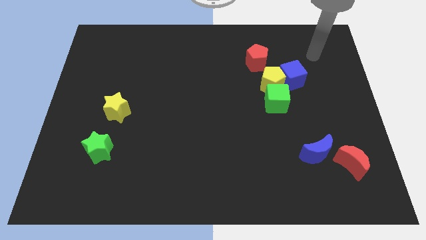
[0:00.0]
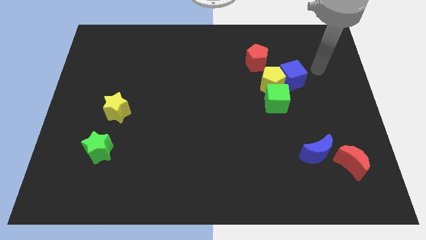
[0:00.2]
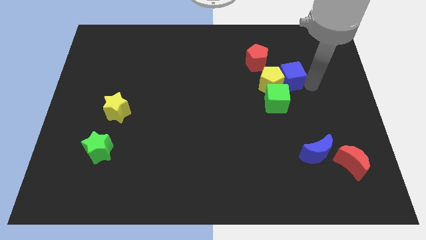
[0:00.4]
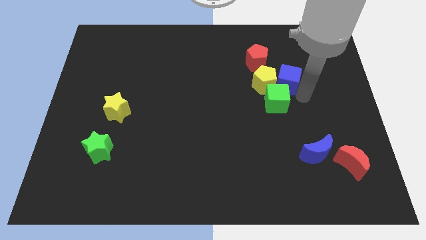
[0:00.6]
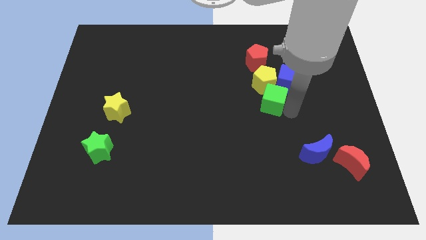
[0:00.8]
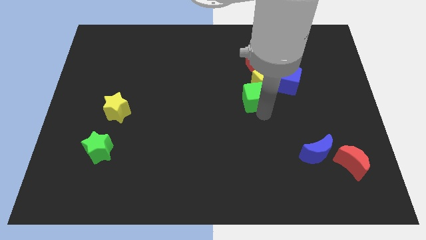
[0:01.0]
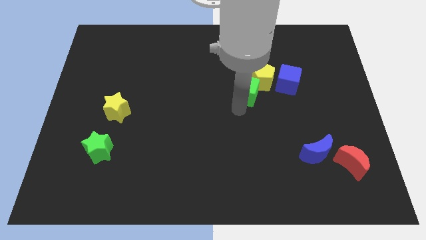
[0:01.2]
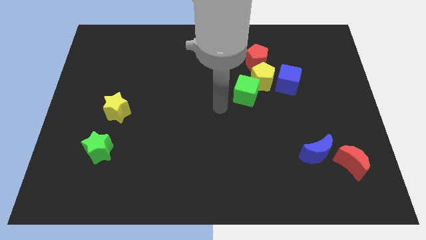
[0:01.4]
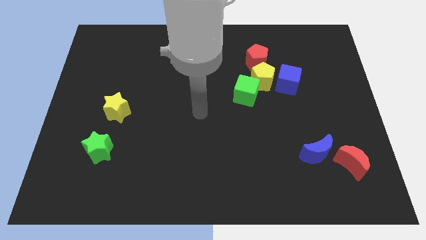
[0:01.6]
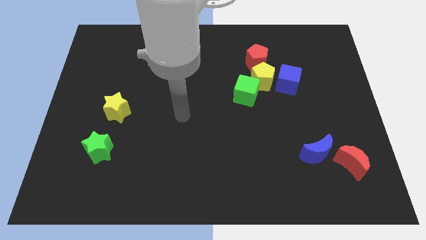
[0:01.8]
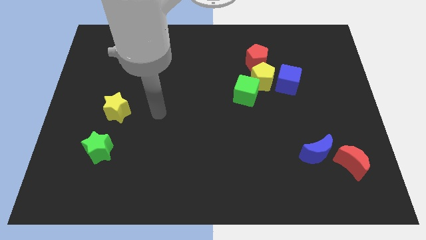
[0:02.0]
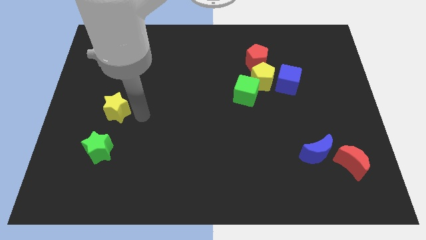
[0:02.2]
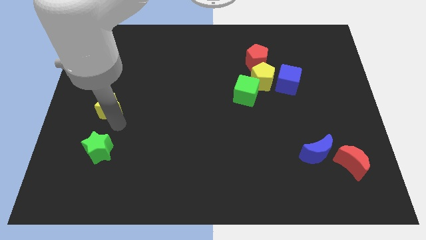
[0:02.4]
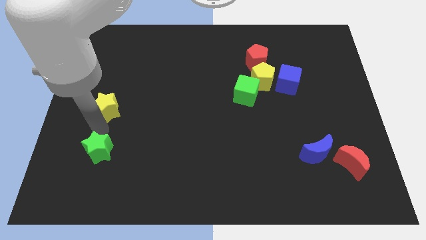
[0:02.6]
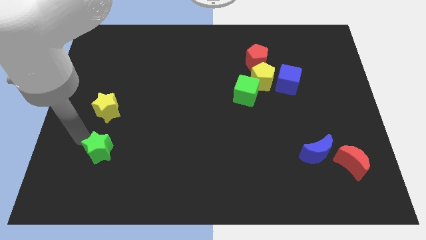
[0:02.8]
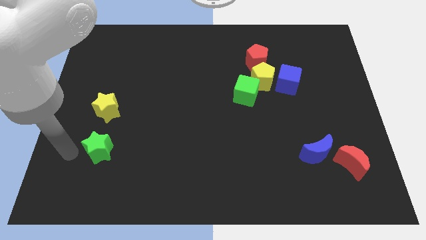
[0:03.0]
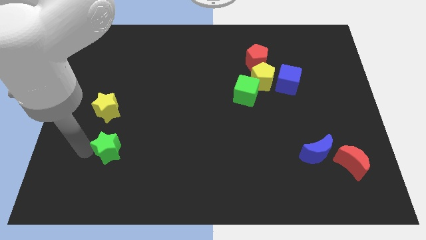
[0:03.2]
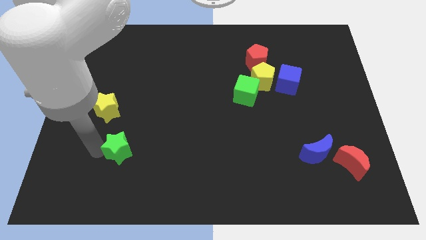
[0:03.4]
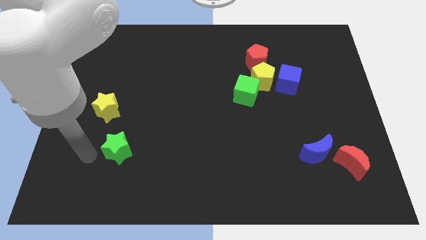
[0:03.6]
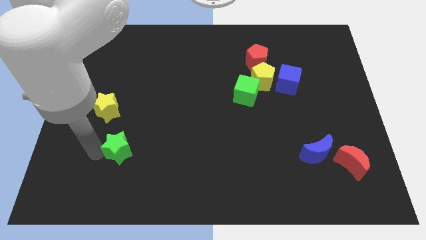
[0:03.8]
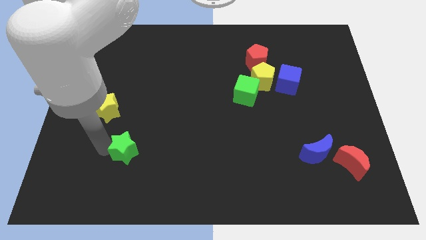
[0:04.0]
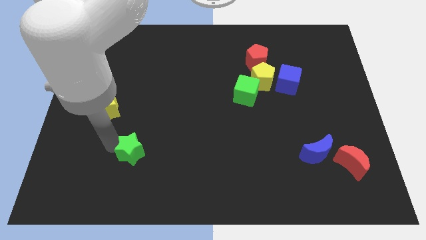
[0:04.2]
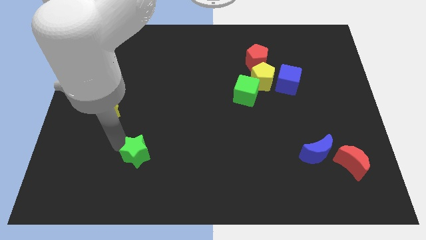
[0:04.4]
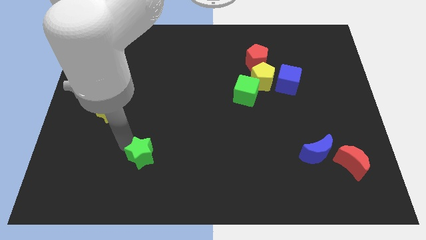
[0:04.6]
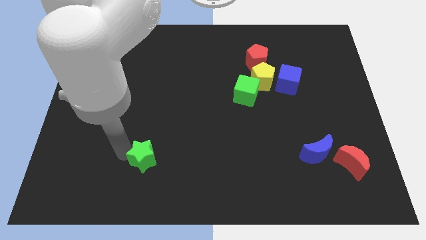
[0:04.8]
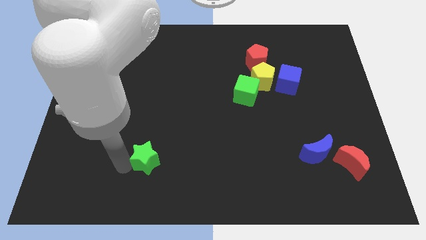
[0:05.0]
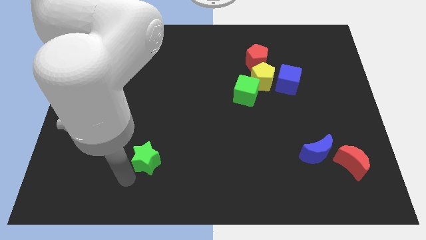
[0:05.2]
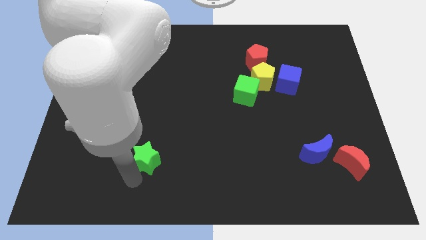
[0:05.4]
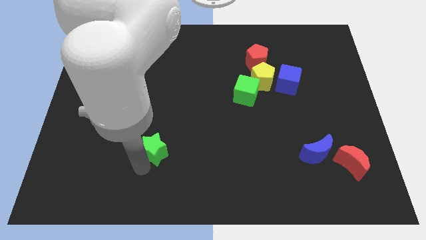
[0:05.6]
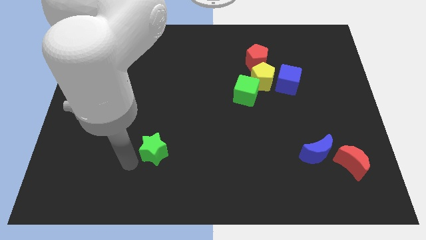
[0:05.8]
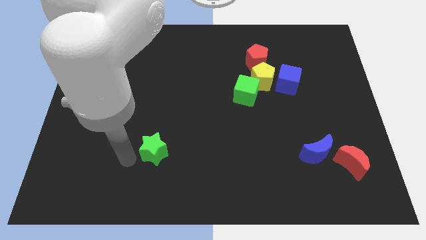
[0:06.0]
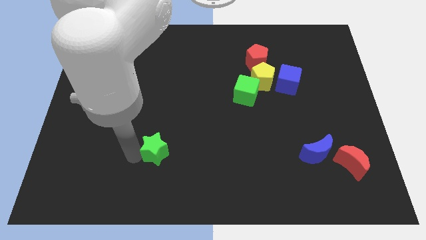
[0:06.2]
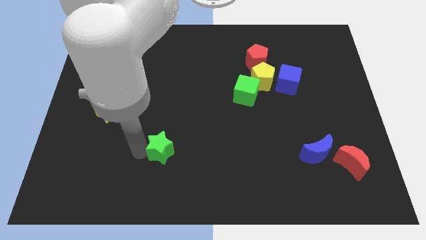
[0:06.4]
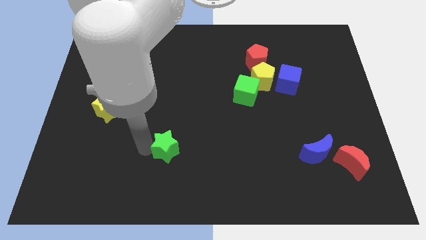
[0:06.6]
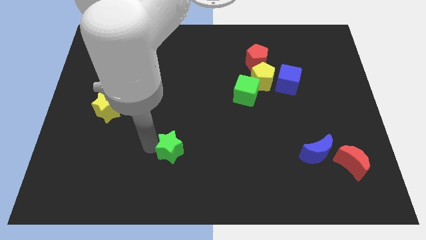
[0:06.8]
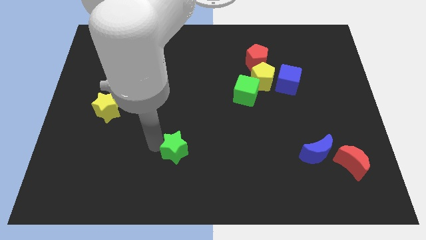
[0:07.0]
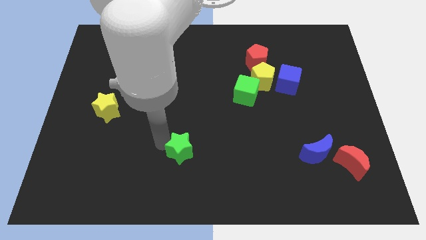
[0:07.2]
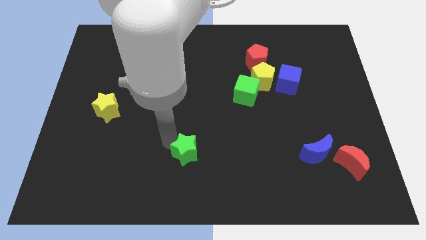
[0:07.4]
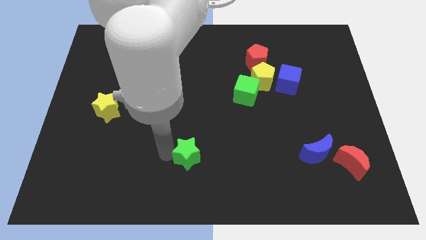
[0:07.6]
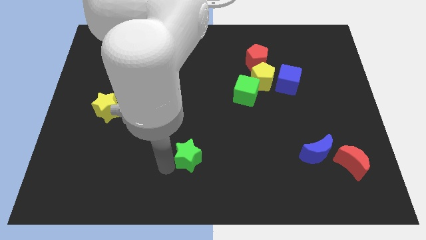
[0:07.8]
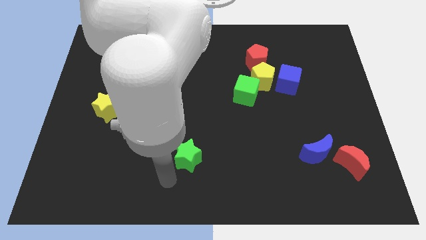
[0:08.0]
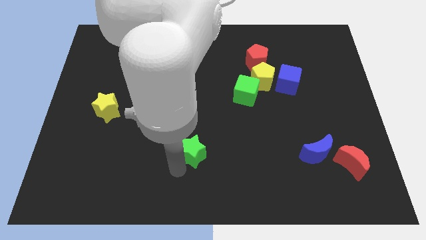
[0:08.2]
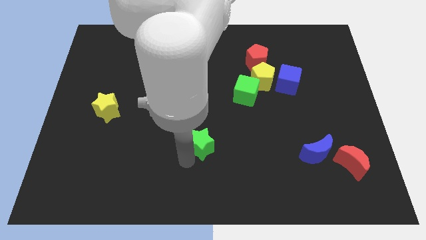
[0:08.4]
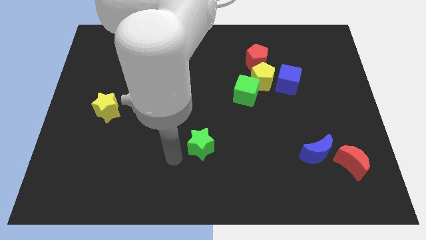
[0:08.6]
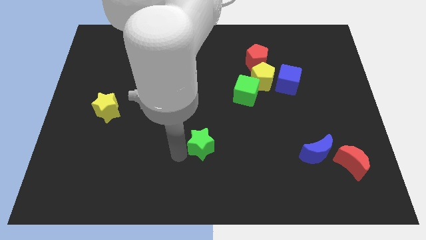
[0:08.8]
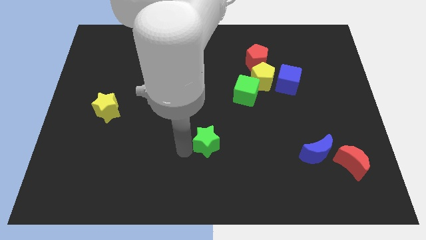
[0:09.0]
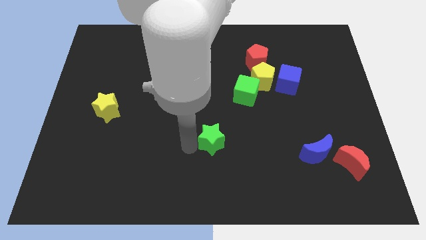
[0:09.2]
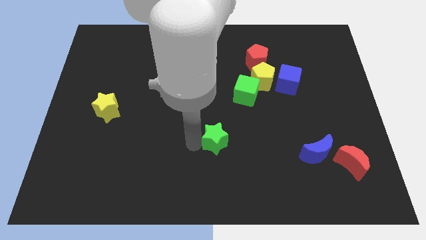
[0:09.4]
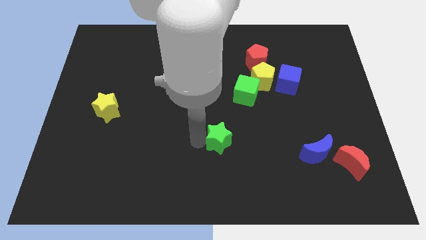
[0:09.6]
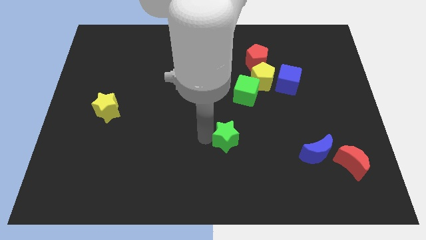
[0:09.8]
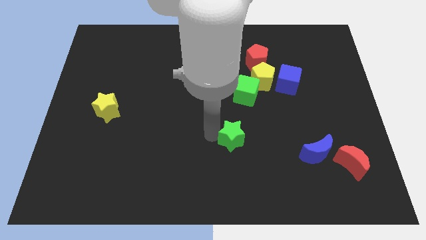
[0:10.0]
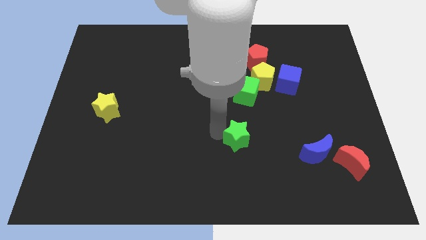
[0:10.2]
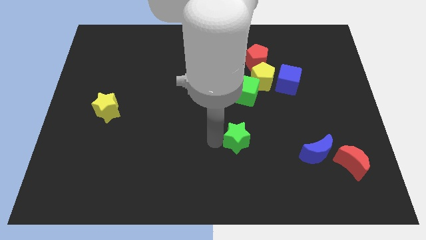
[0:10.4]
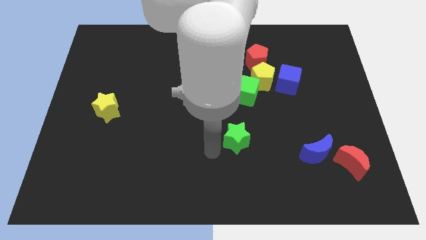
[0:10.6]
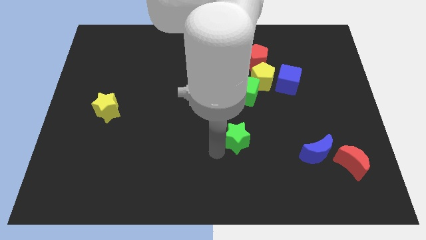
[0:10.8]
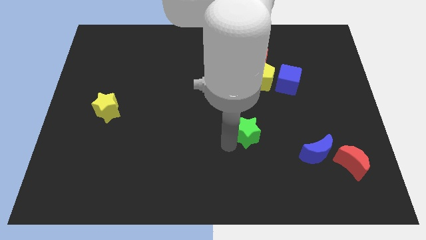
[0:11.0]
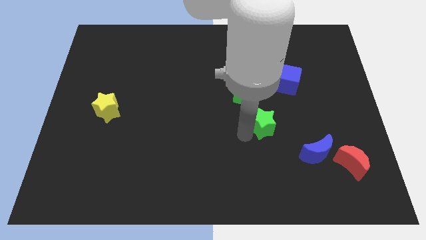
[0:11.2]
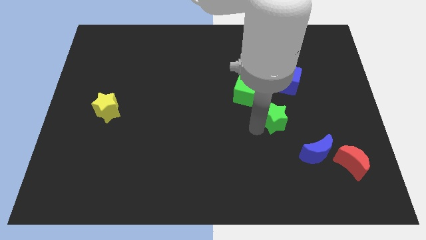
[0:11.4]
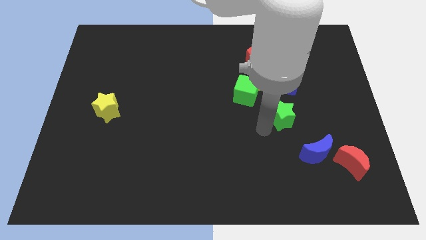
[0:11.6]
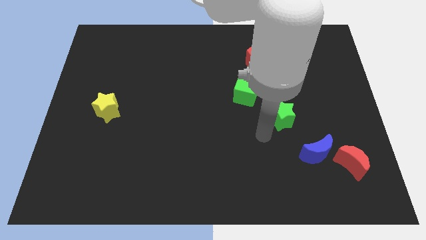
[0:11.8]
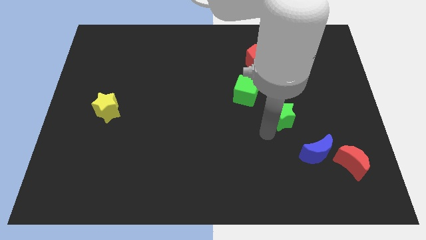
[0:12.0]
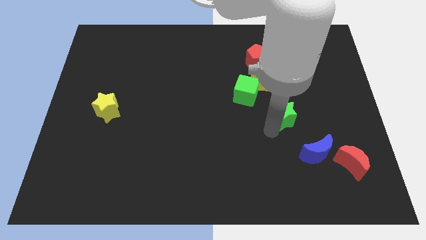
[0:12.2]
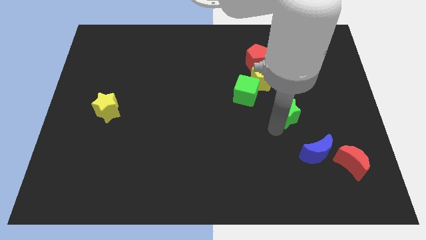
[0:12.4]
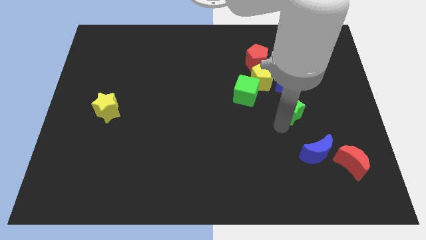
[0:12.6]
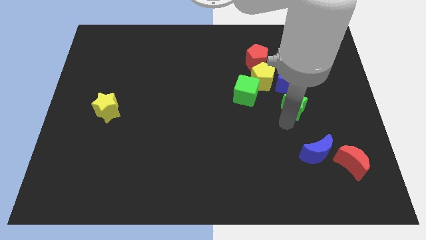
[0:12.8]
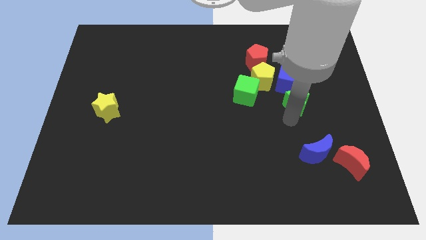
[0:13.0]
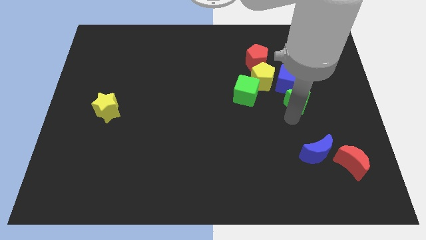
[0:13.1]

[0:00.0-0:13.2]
slide the green star towards the blue cube
